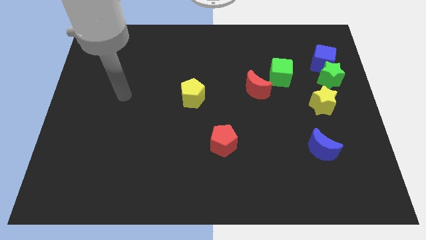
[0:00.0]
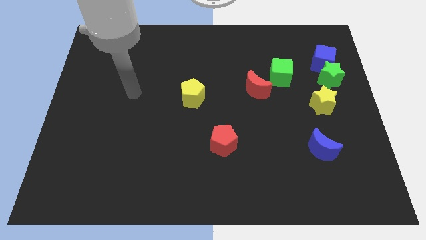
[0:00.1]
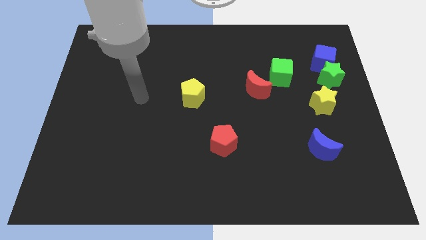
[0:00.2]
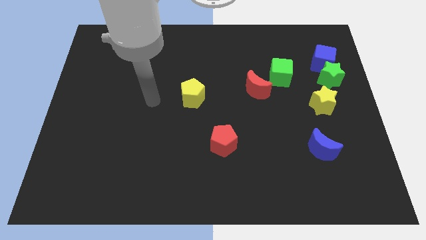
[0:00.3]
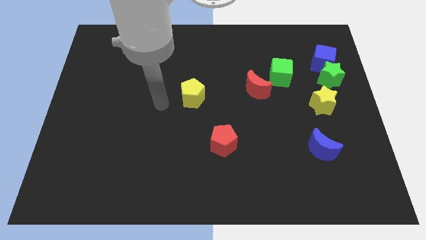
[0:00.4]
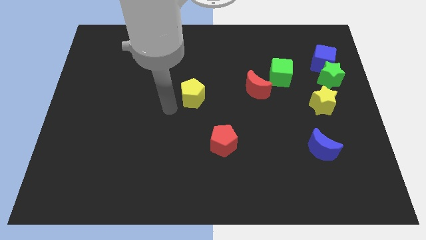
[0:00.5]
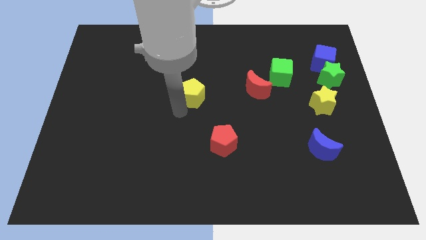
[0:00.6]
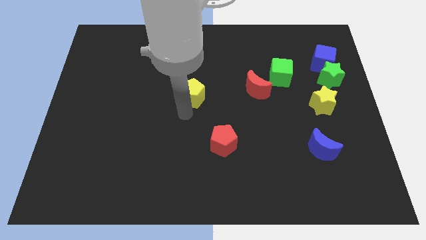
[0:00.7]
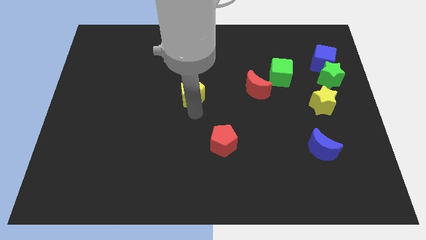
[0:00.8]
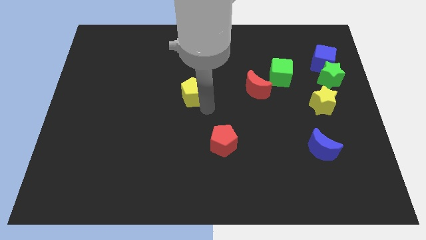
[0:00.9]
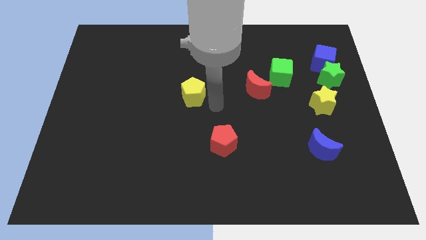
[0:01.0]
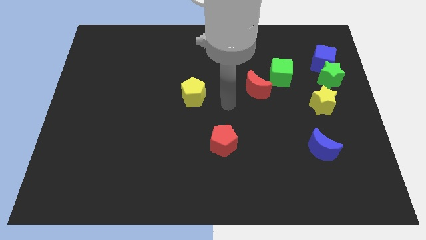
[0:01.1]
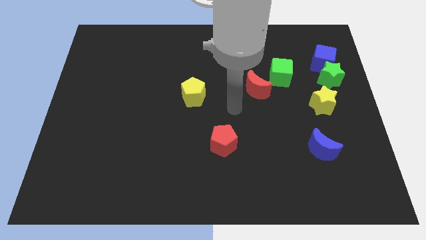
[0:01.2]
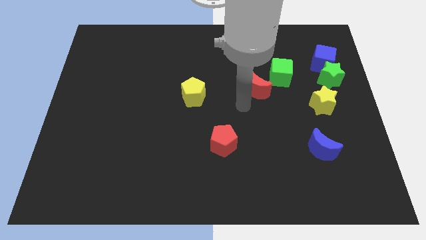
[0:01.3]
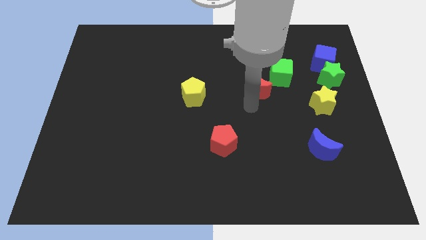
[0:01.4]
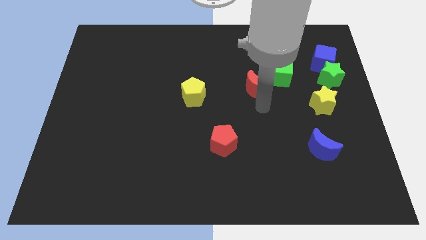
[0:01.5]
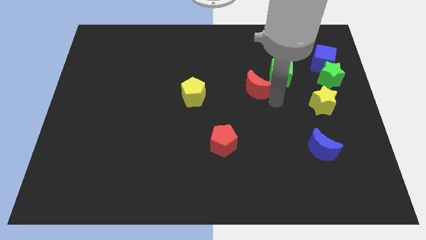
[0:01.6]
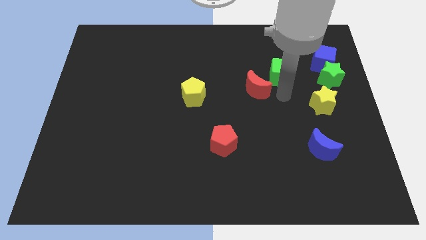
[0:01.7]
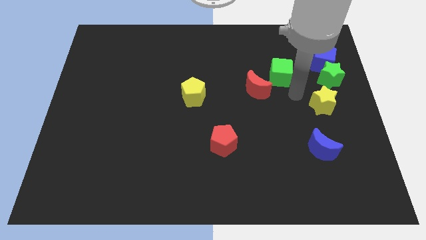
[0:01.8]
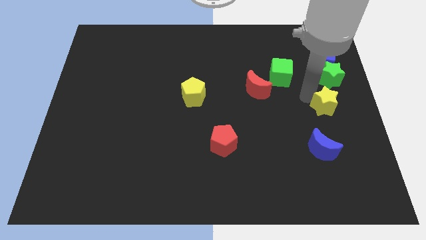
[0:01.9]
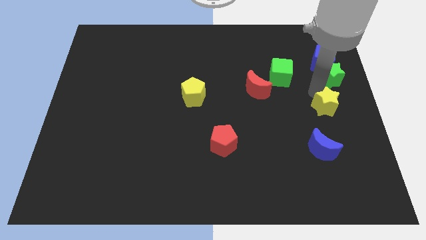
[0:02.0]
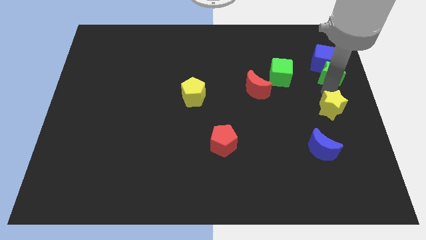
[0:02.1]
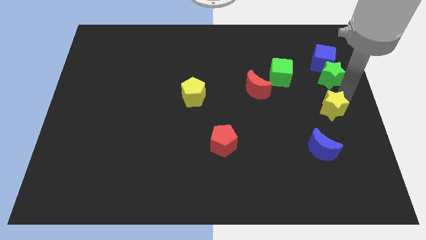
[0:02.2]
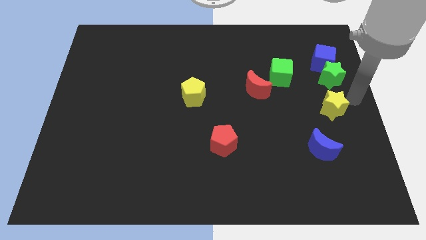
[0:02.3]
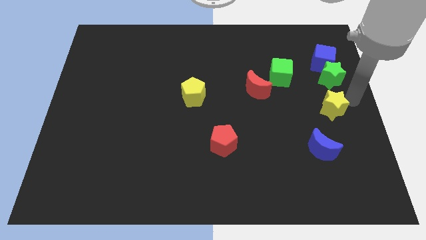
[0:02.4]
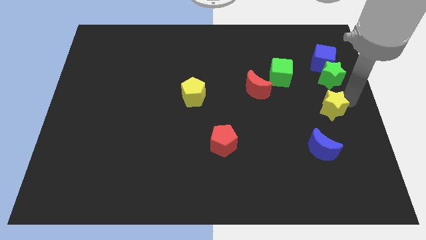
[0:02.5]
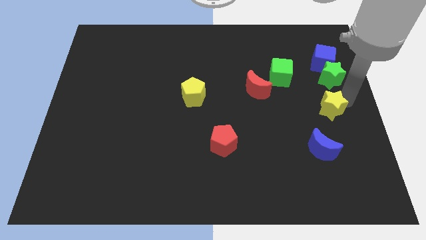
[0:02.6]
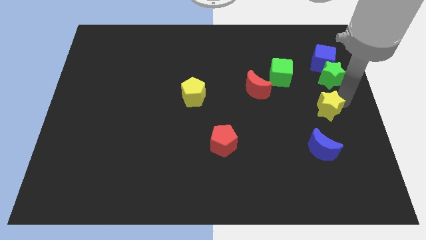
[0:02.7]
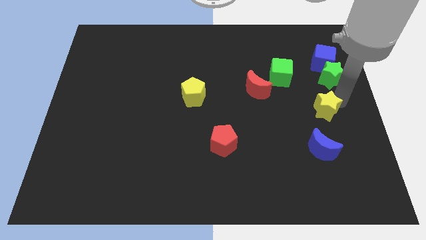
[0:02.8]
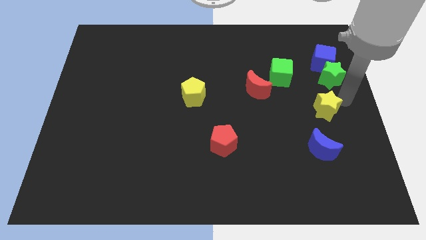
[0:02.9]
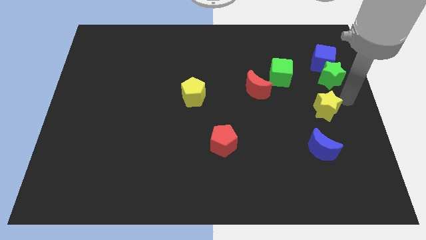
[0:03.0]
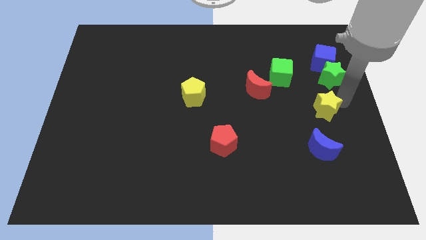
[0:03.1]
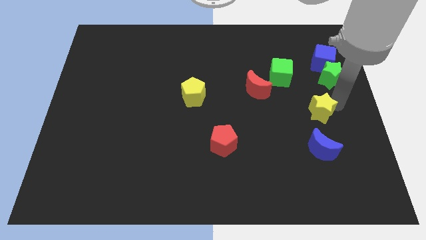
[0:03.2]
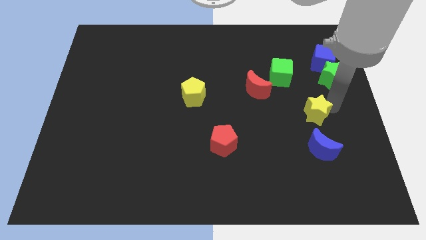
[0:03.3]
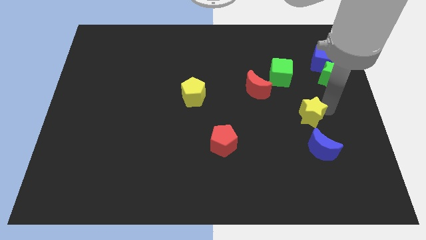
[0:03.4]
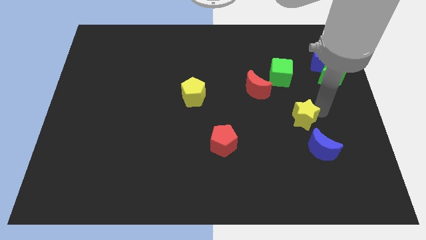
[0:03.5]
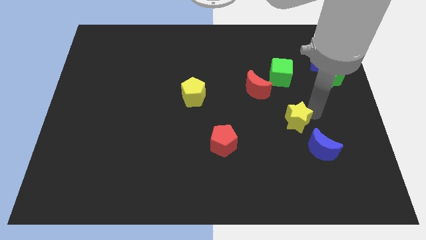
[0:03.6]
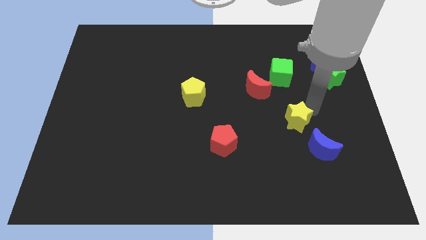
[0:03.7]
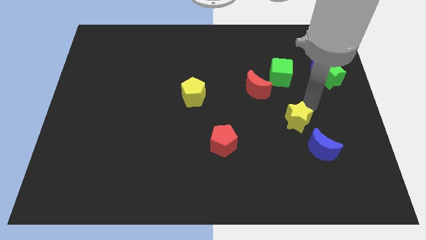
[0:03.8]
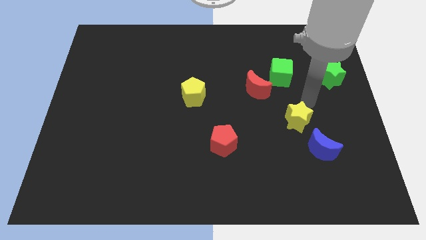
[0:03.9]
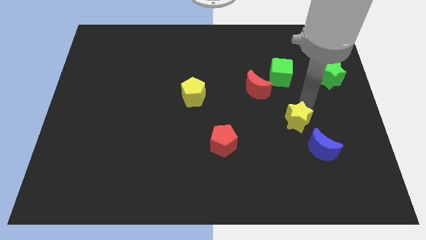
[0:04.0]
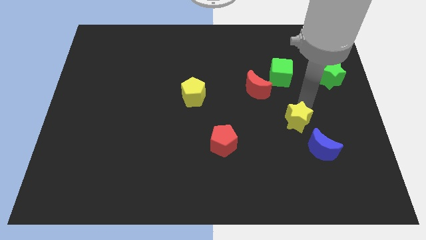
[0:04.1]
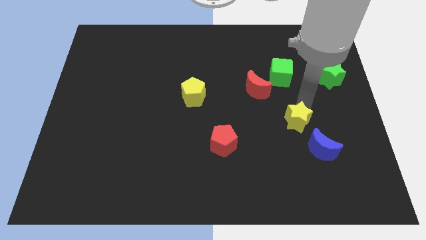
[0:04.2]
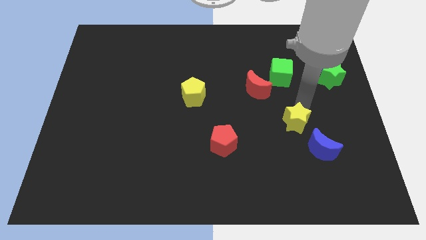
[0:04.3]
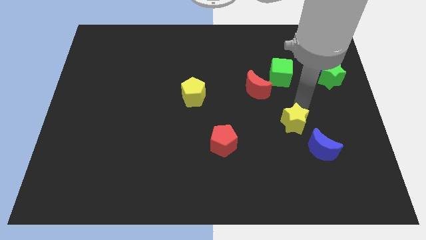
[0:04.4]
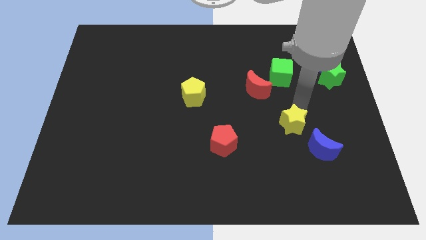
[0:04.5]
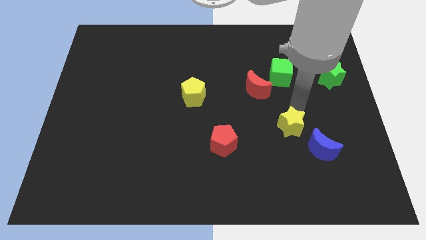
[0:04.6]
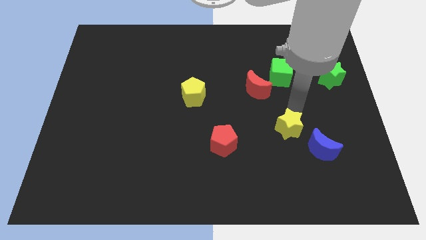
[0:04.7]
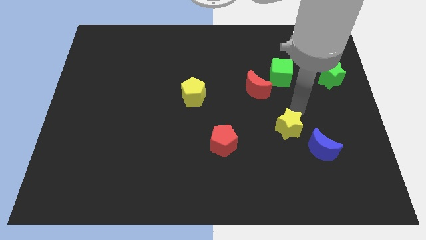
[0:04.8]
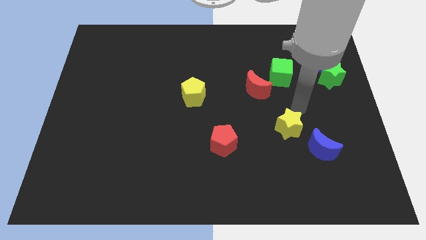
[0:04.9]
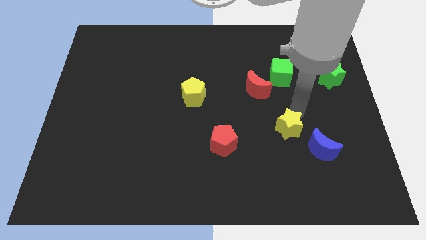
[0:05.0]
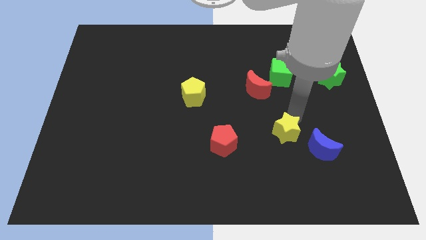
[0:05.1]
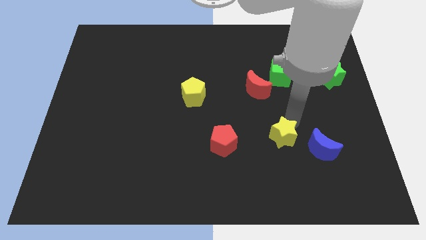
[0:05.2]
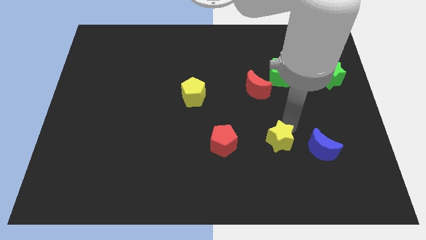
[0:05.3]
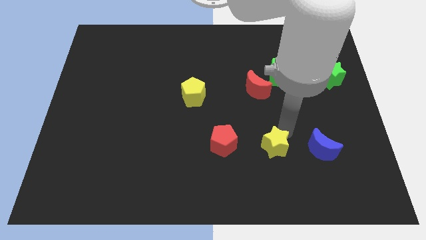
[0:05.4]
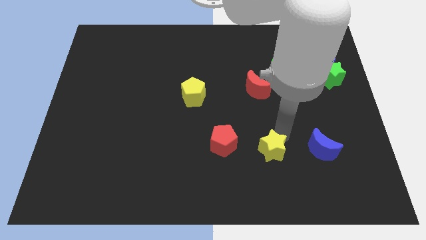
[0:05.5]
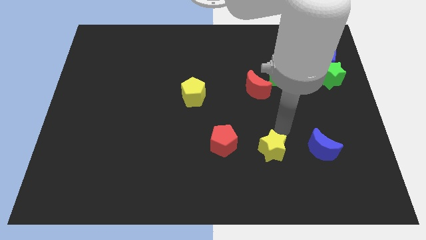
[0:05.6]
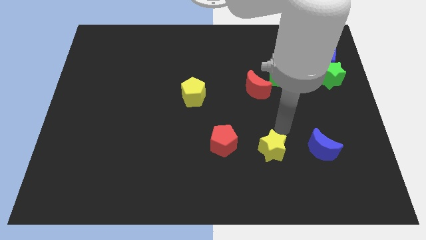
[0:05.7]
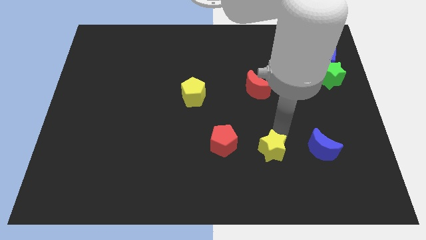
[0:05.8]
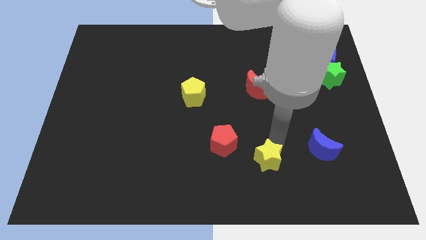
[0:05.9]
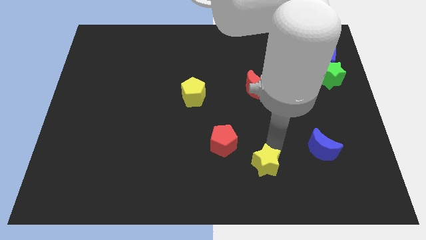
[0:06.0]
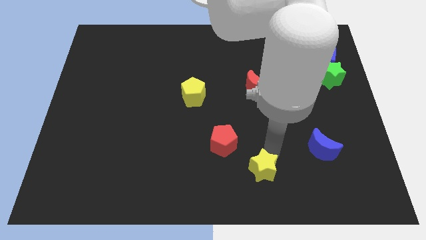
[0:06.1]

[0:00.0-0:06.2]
put the yellow star to the bottom

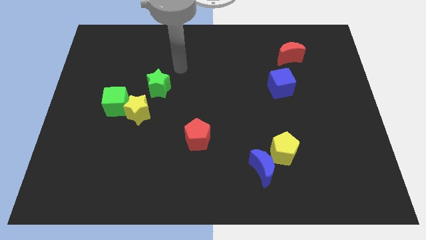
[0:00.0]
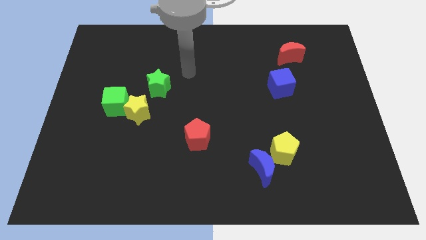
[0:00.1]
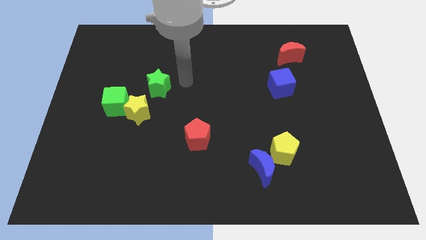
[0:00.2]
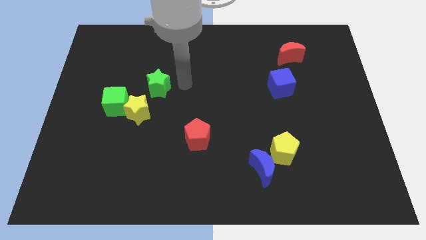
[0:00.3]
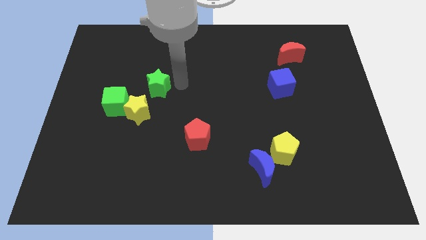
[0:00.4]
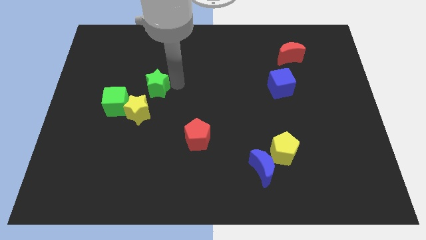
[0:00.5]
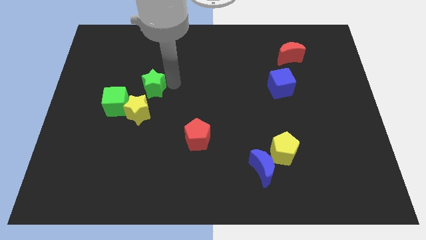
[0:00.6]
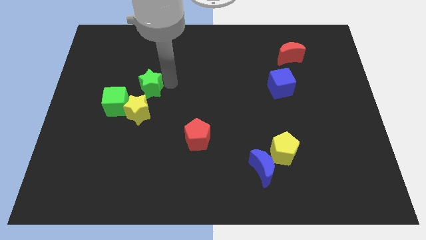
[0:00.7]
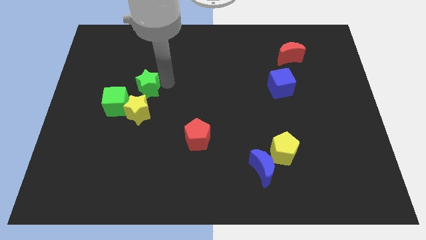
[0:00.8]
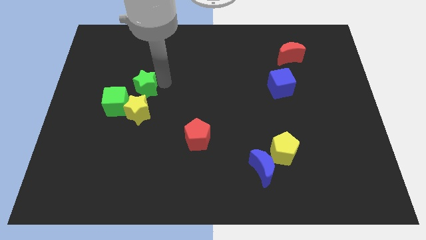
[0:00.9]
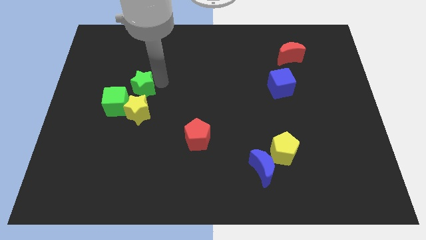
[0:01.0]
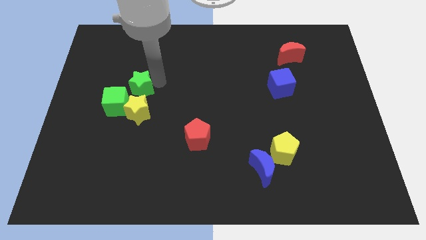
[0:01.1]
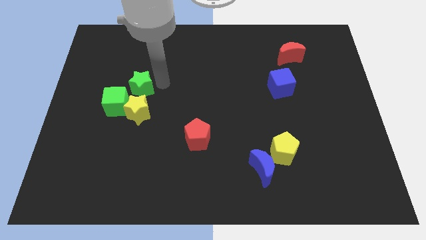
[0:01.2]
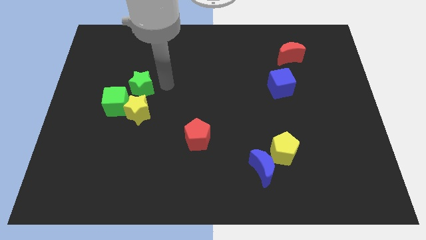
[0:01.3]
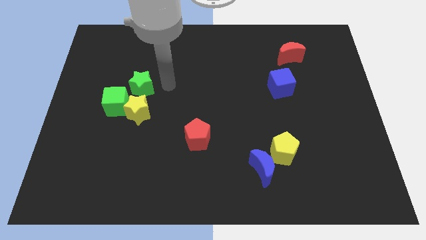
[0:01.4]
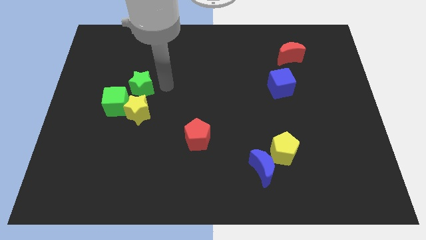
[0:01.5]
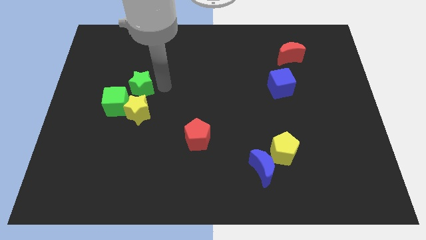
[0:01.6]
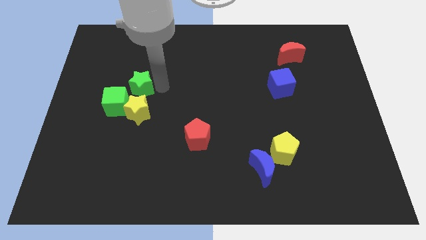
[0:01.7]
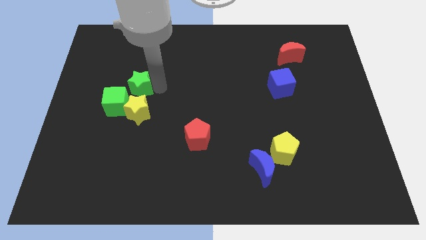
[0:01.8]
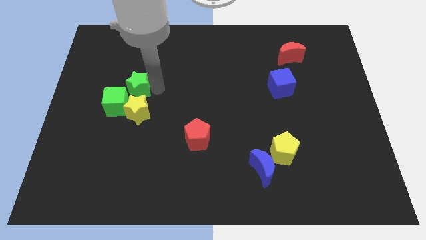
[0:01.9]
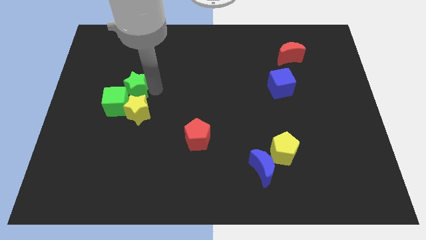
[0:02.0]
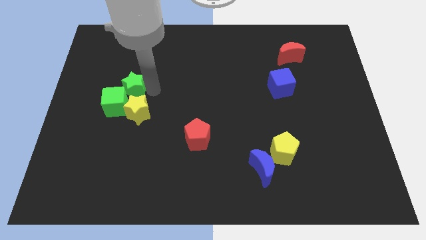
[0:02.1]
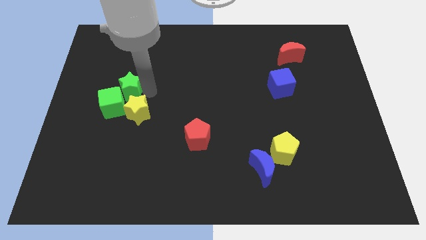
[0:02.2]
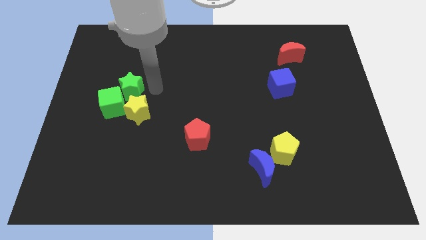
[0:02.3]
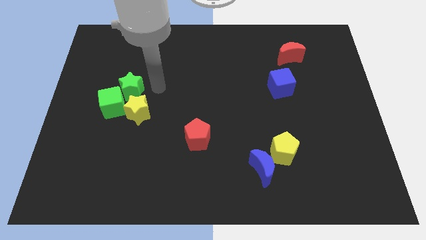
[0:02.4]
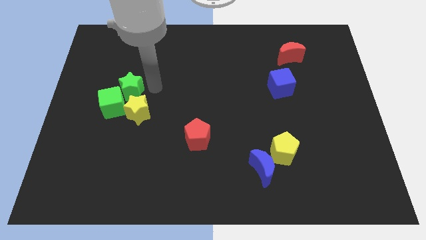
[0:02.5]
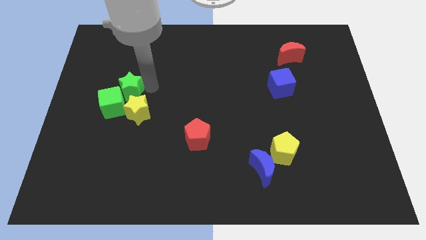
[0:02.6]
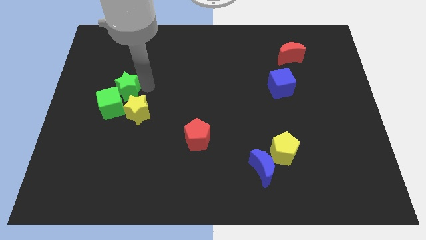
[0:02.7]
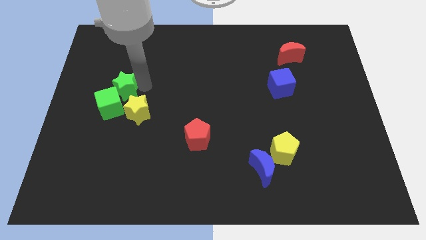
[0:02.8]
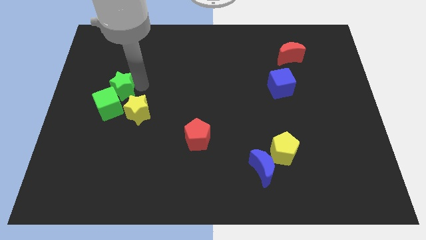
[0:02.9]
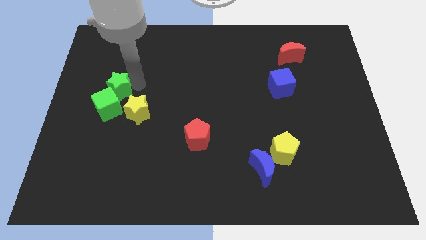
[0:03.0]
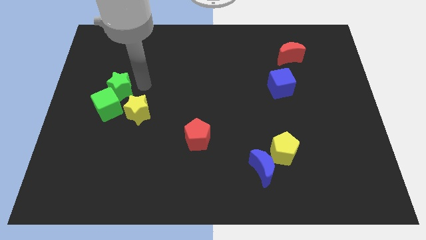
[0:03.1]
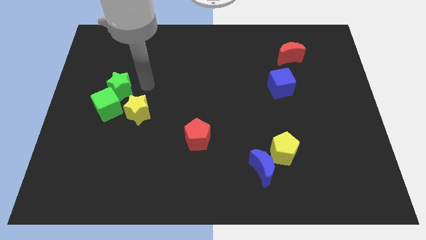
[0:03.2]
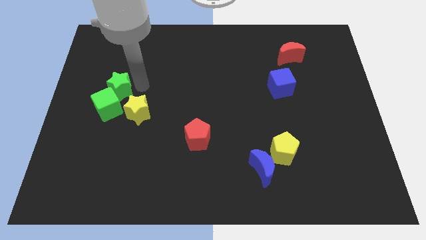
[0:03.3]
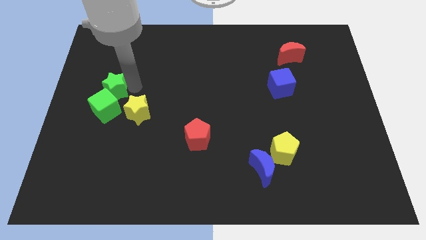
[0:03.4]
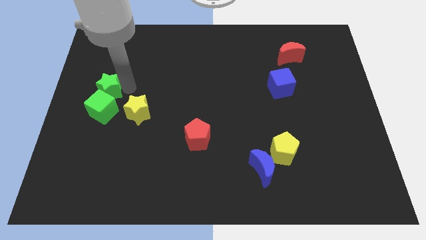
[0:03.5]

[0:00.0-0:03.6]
slide the green star to the center left
